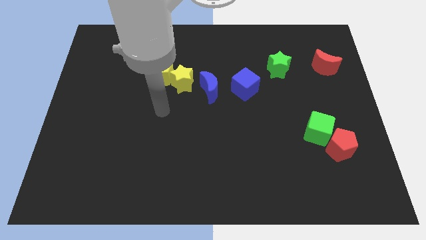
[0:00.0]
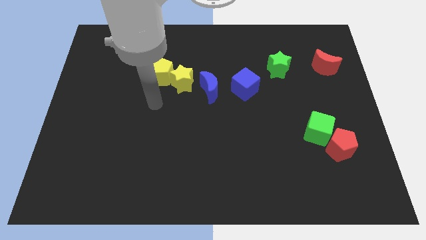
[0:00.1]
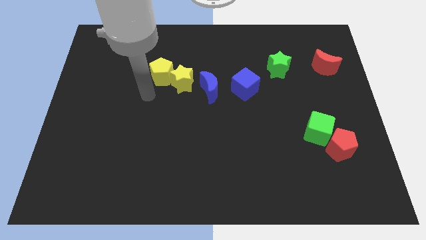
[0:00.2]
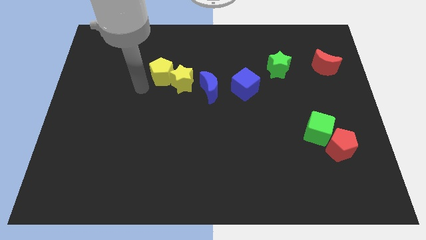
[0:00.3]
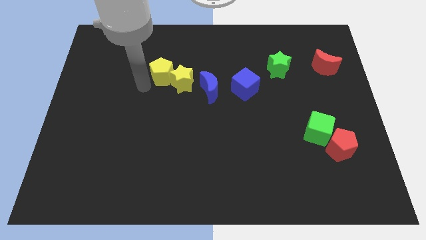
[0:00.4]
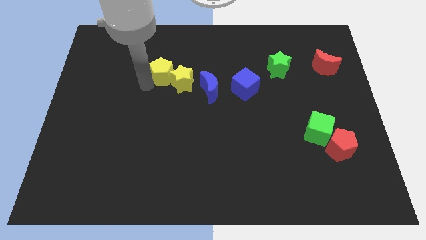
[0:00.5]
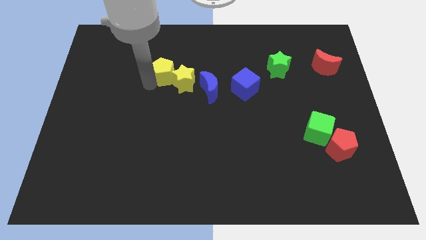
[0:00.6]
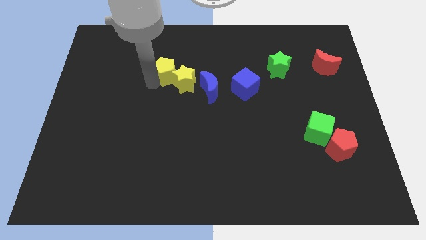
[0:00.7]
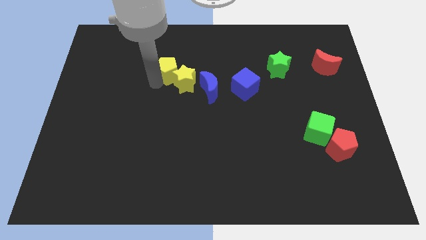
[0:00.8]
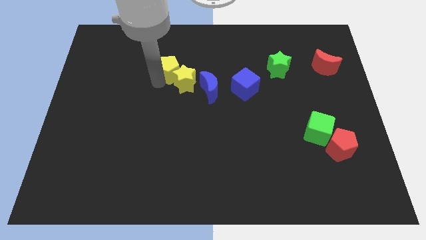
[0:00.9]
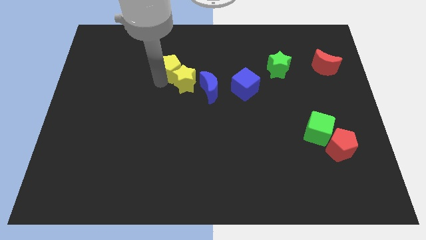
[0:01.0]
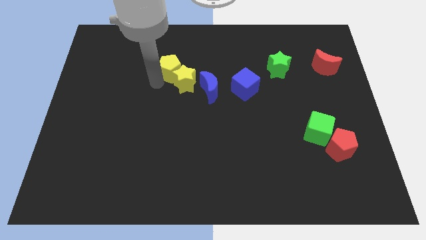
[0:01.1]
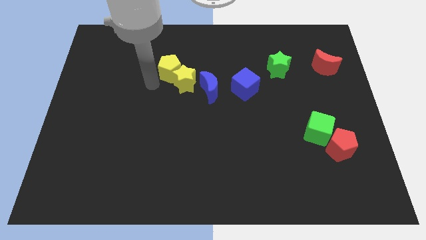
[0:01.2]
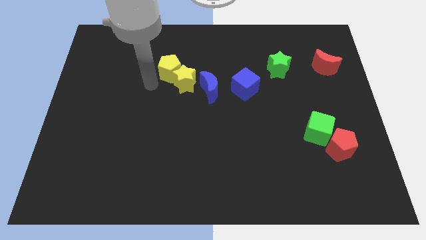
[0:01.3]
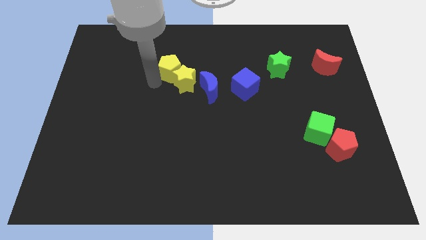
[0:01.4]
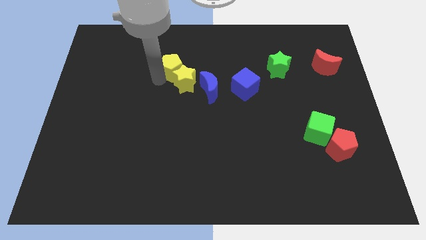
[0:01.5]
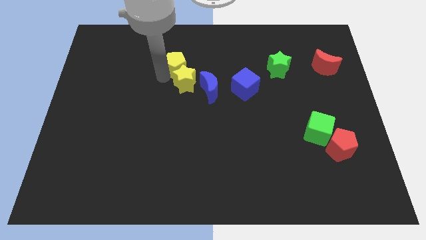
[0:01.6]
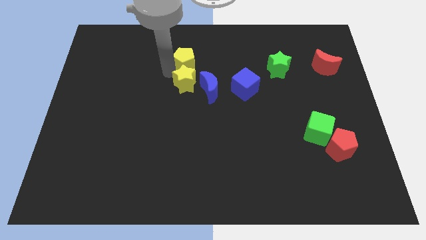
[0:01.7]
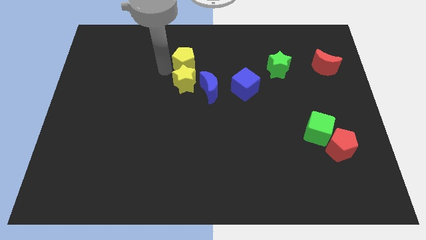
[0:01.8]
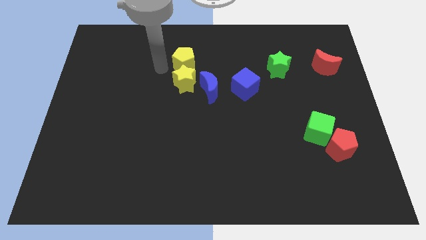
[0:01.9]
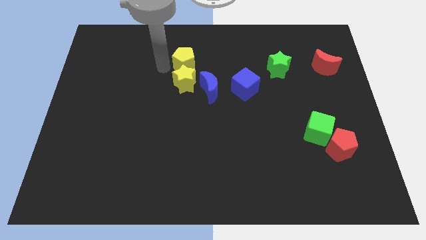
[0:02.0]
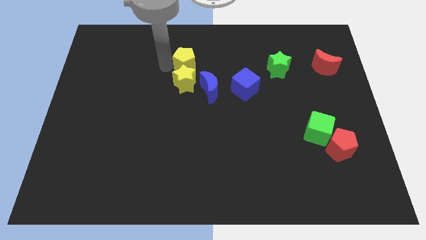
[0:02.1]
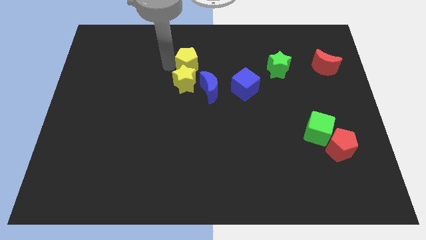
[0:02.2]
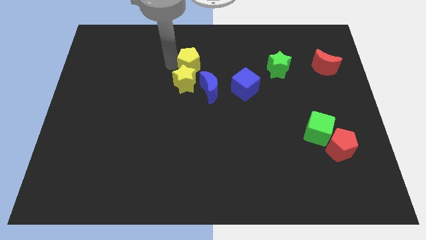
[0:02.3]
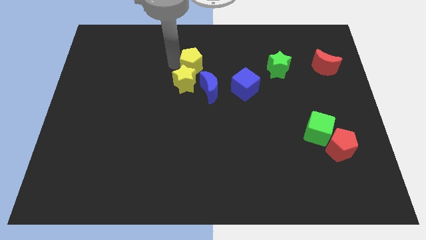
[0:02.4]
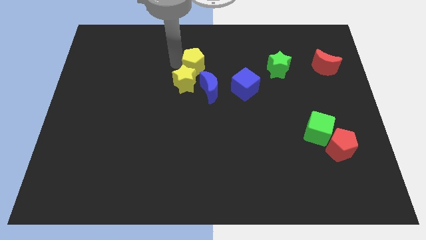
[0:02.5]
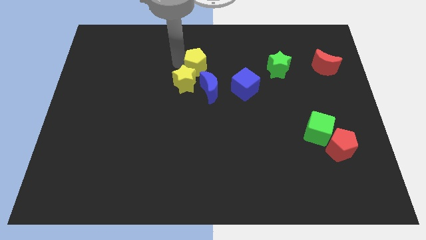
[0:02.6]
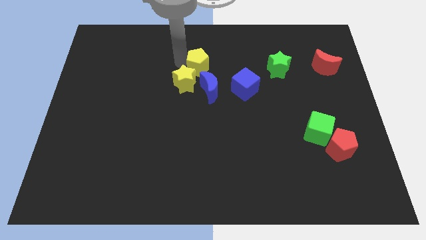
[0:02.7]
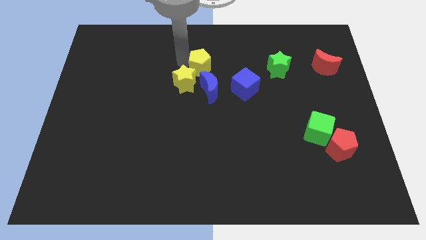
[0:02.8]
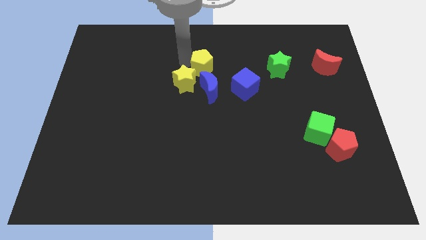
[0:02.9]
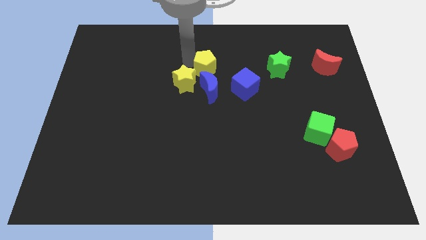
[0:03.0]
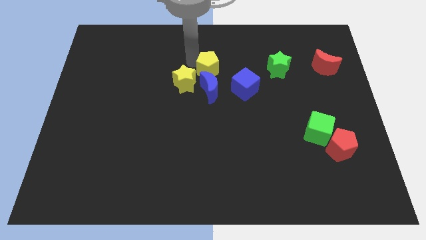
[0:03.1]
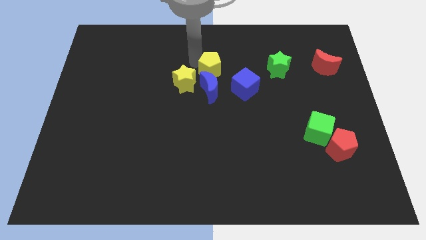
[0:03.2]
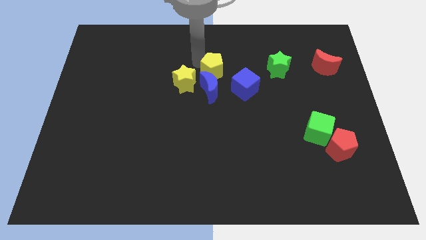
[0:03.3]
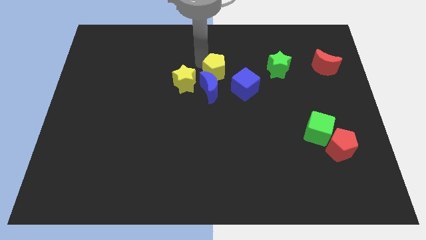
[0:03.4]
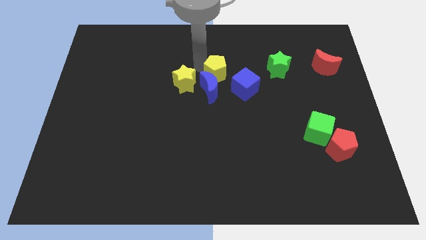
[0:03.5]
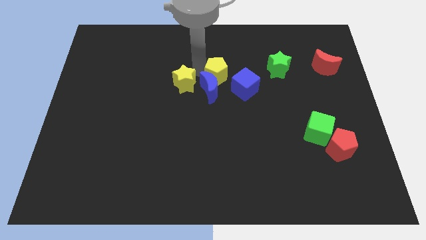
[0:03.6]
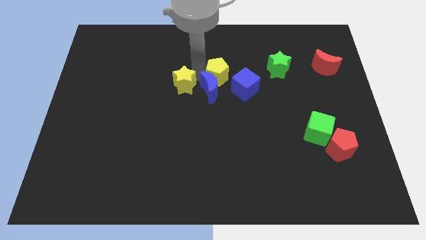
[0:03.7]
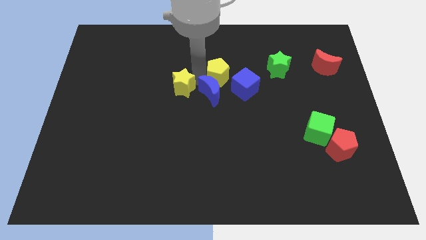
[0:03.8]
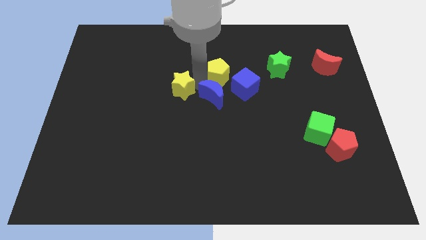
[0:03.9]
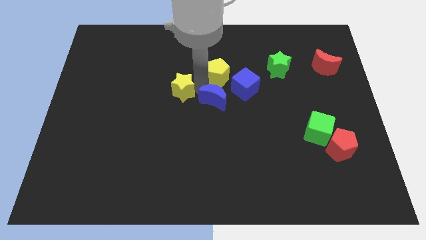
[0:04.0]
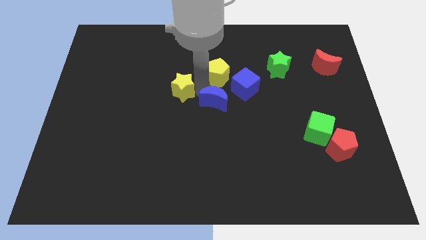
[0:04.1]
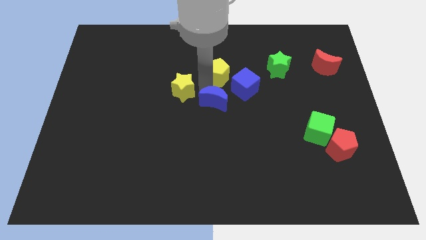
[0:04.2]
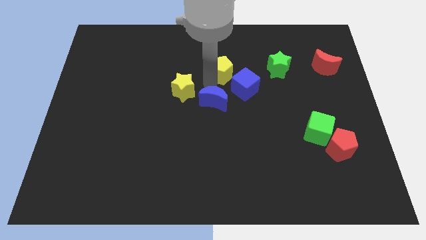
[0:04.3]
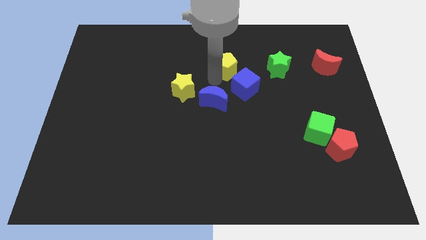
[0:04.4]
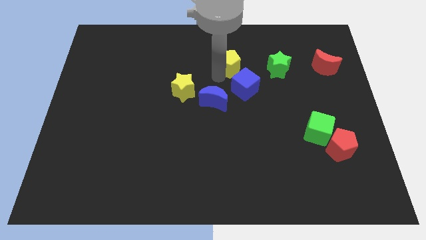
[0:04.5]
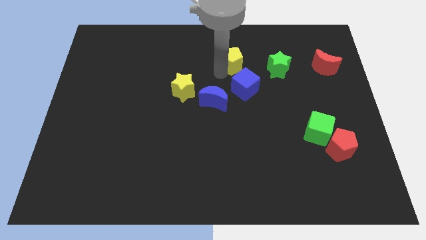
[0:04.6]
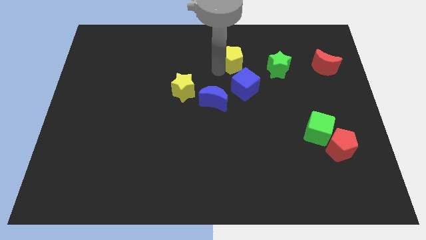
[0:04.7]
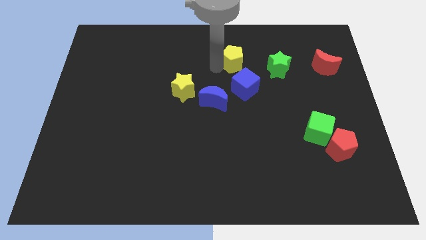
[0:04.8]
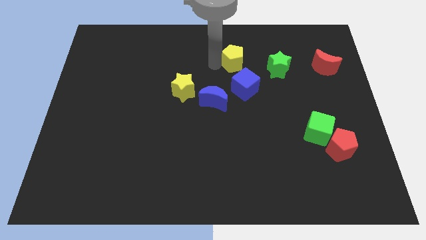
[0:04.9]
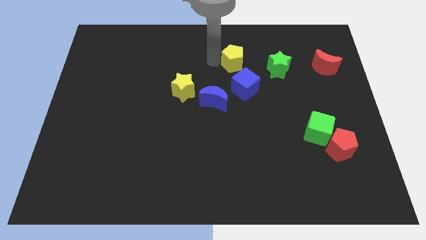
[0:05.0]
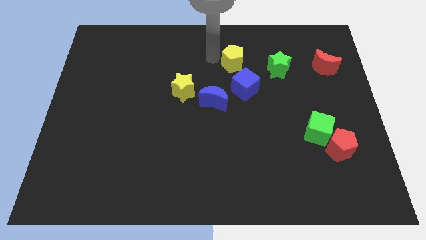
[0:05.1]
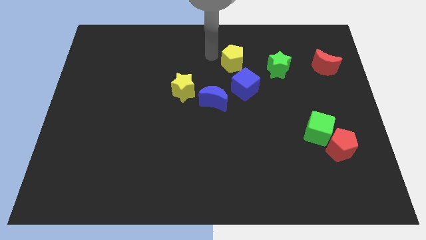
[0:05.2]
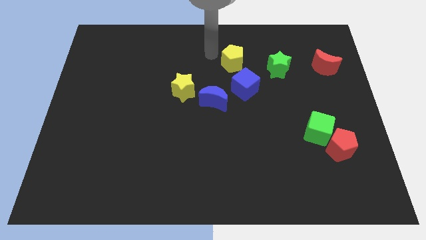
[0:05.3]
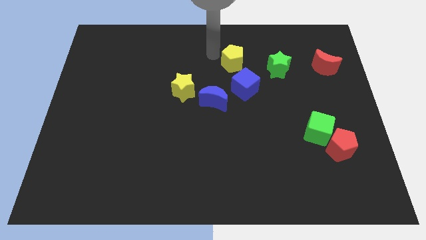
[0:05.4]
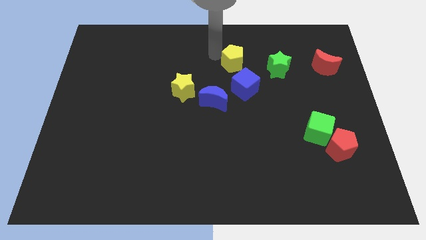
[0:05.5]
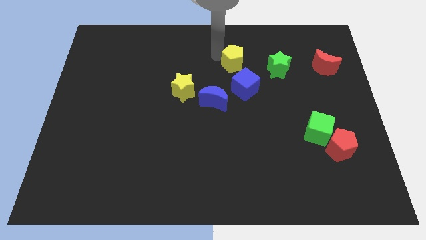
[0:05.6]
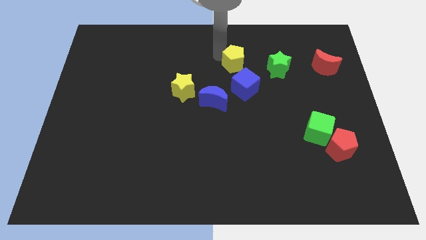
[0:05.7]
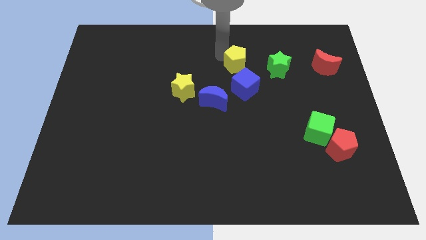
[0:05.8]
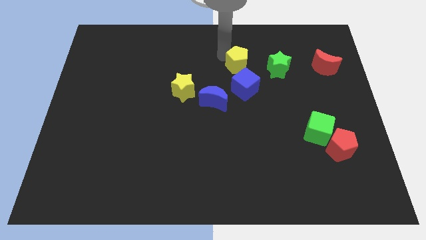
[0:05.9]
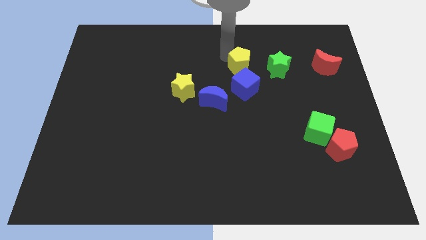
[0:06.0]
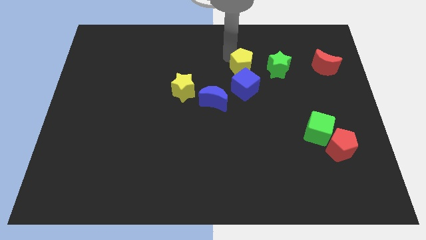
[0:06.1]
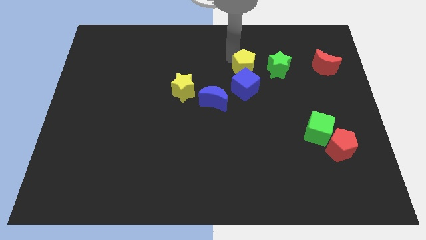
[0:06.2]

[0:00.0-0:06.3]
put the yellow pentagon to the top right side of the blue cube

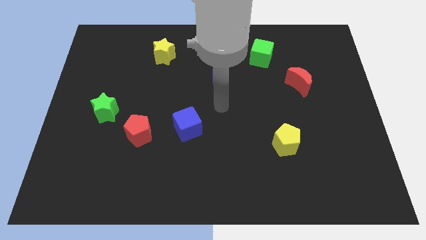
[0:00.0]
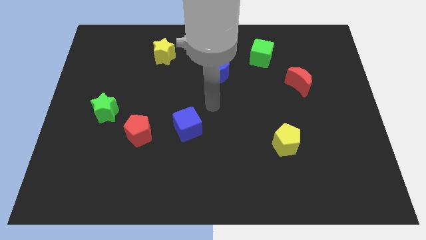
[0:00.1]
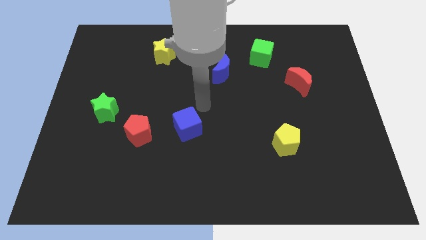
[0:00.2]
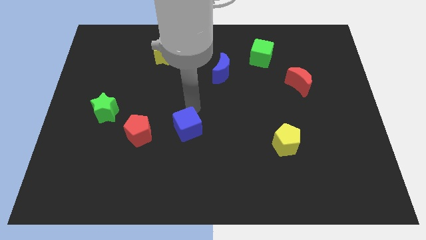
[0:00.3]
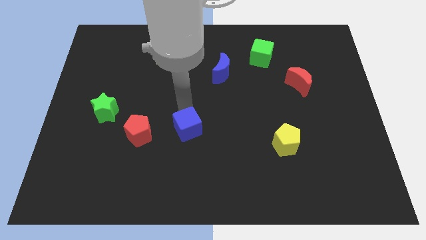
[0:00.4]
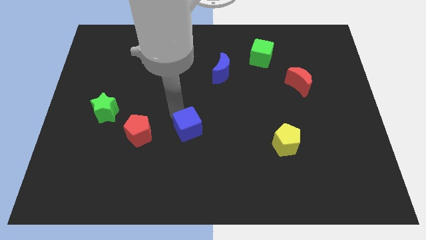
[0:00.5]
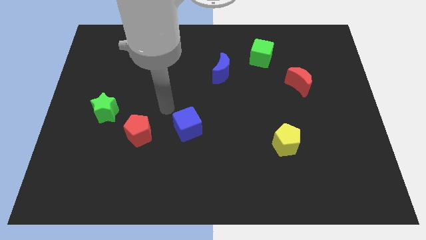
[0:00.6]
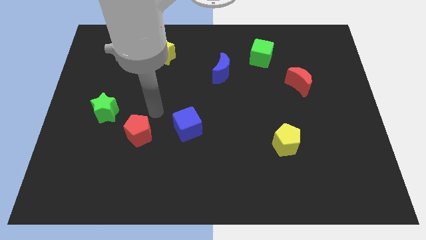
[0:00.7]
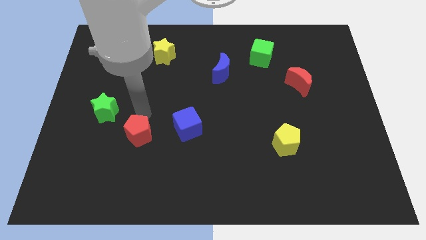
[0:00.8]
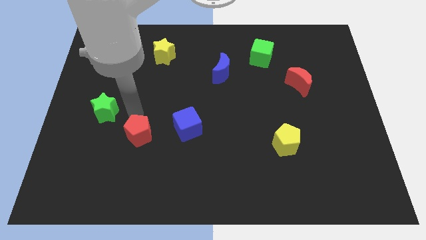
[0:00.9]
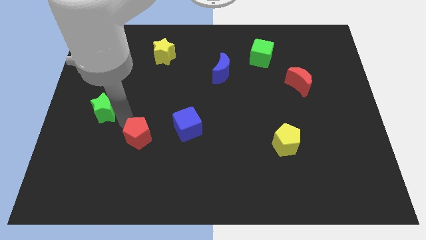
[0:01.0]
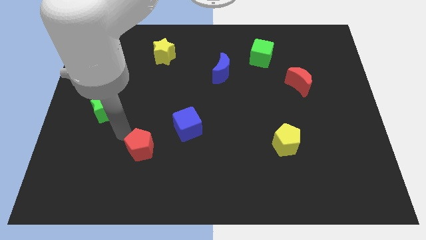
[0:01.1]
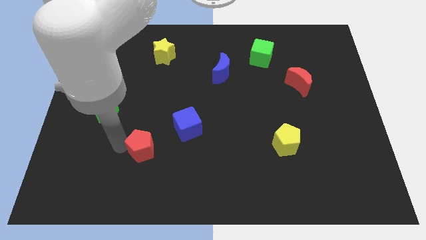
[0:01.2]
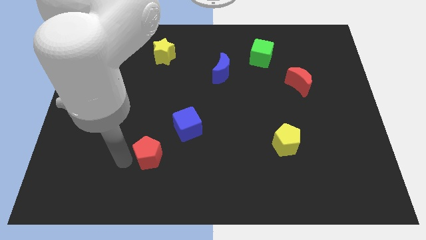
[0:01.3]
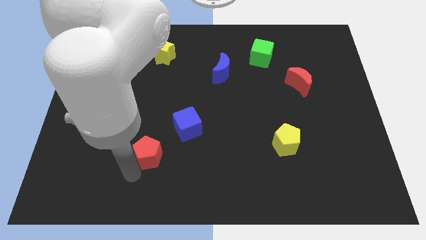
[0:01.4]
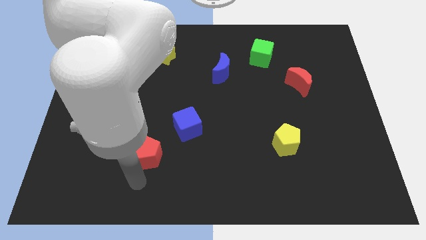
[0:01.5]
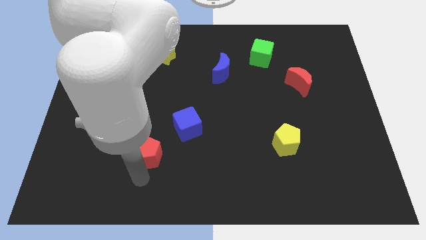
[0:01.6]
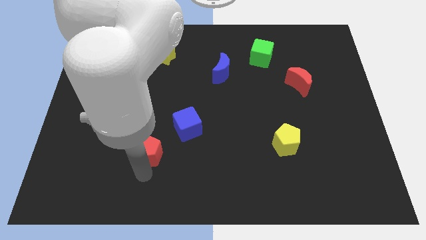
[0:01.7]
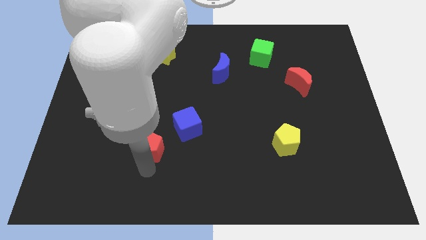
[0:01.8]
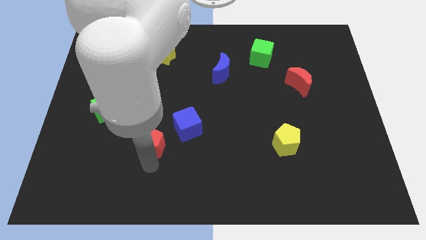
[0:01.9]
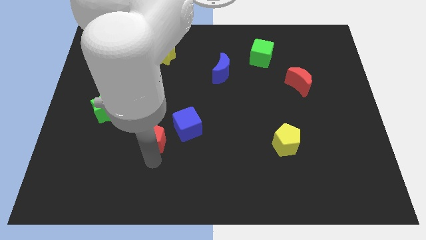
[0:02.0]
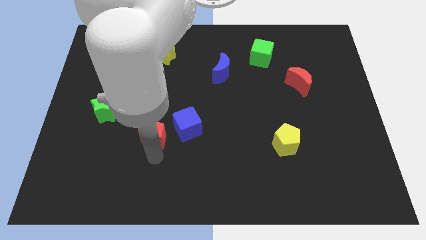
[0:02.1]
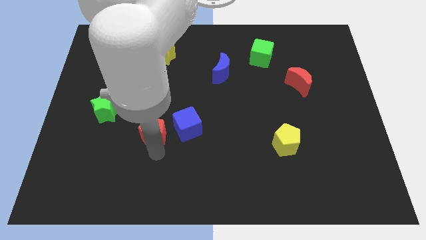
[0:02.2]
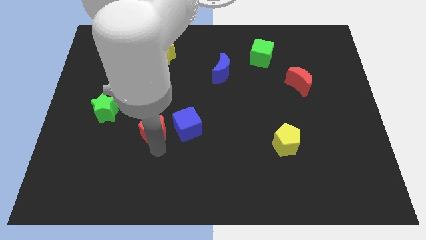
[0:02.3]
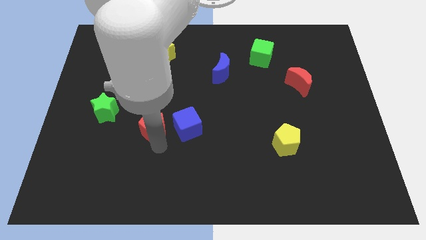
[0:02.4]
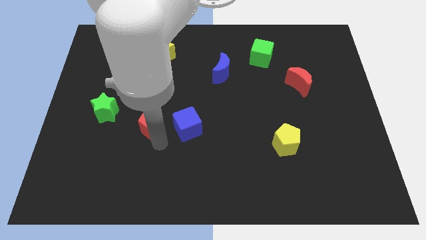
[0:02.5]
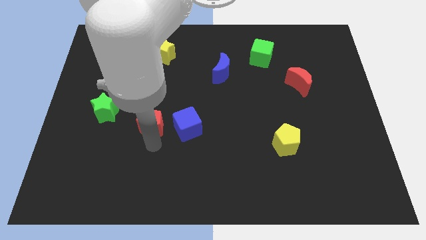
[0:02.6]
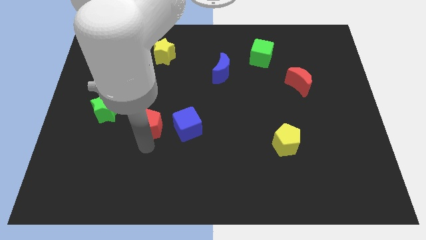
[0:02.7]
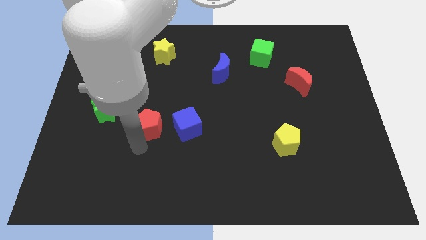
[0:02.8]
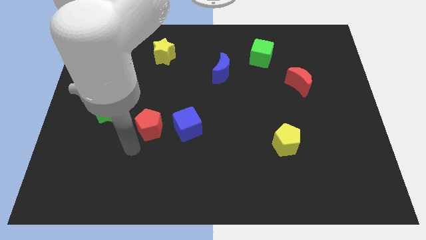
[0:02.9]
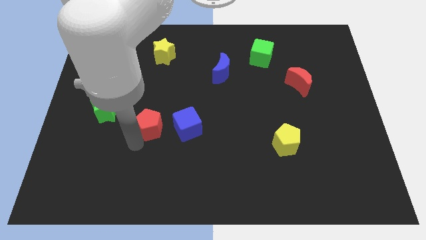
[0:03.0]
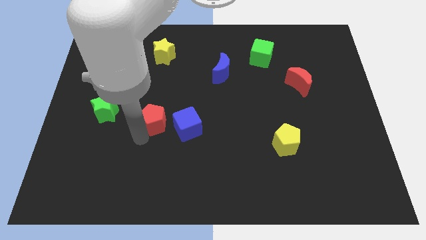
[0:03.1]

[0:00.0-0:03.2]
push the red pentagon diagonally up and to the left of the blue cube
